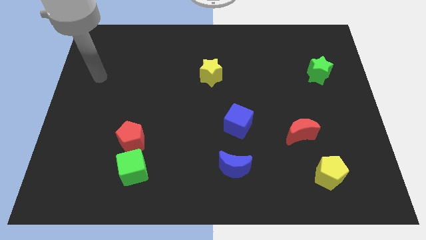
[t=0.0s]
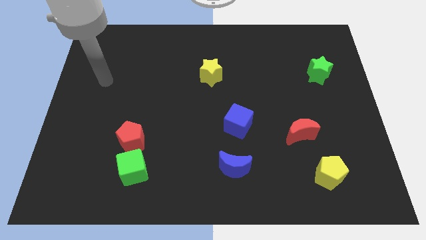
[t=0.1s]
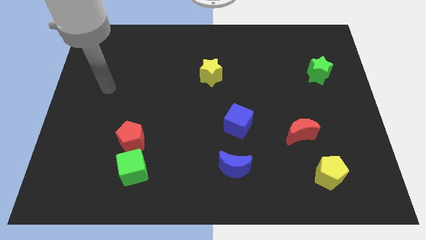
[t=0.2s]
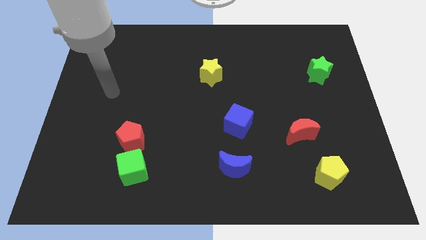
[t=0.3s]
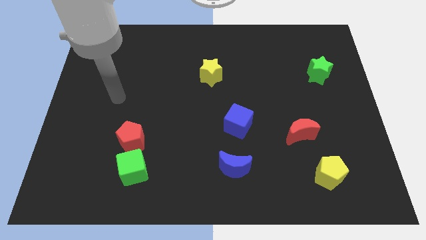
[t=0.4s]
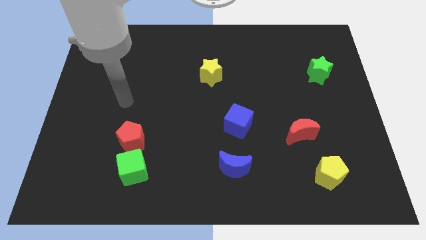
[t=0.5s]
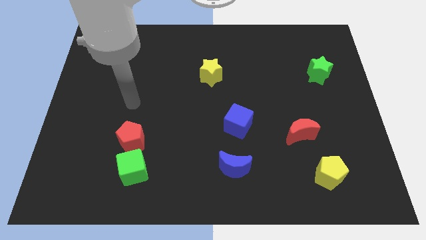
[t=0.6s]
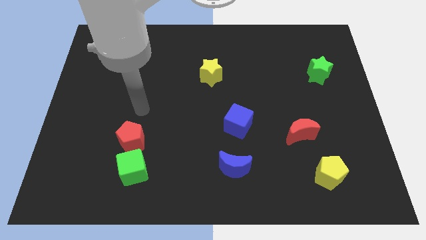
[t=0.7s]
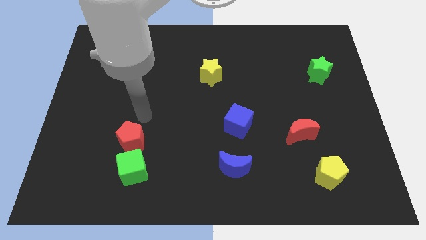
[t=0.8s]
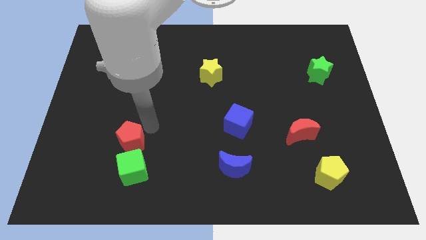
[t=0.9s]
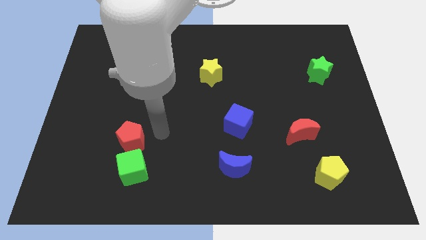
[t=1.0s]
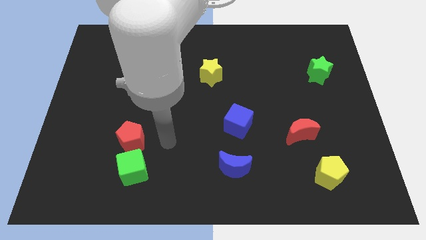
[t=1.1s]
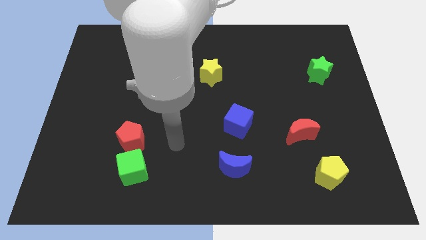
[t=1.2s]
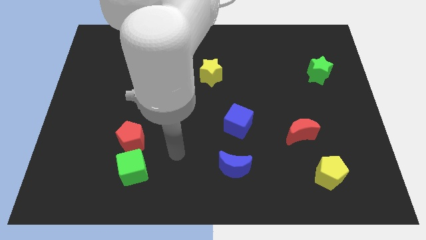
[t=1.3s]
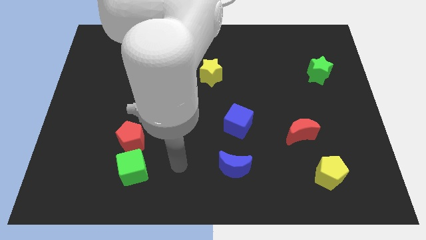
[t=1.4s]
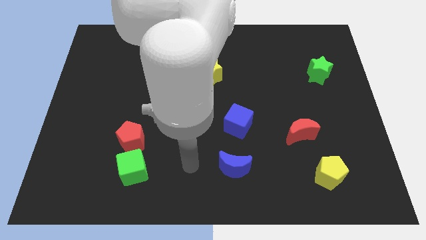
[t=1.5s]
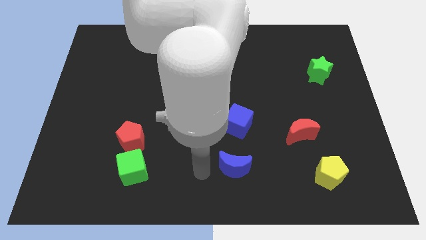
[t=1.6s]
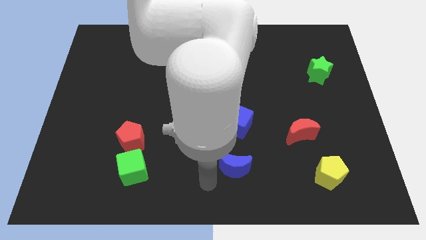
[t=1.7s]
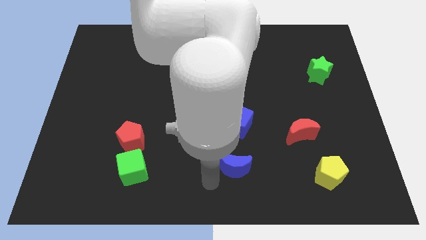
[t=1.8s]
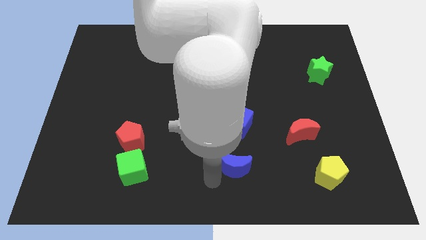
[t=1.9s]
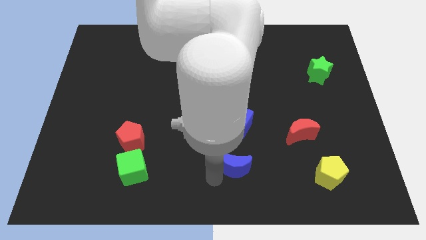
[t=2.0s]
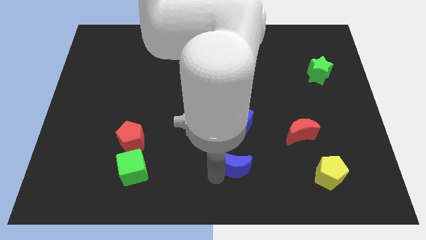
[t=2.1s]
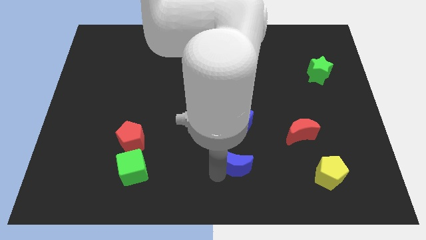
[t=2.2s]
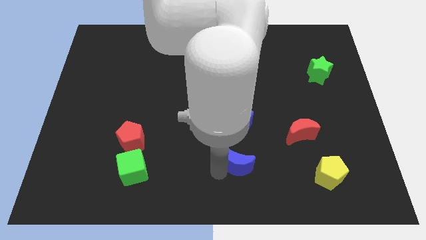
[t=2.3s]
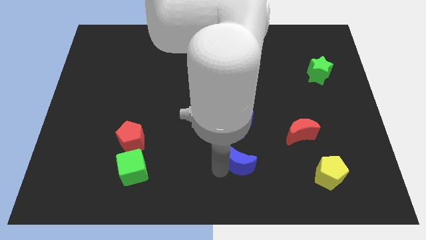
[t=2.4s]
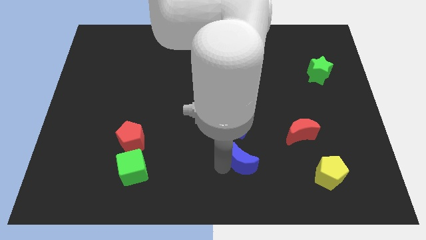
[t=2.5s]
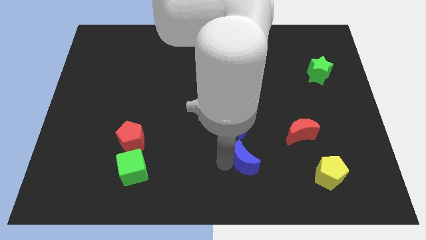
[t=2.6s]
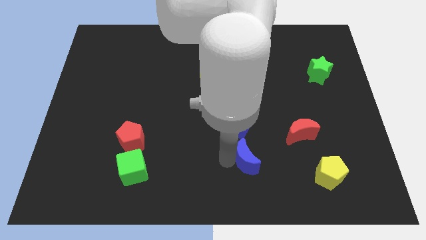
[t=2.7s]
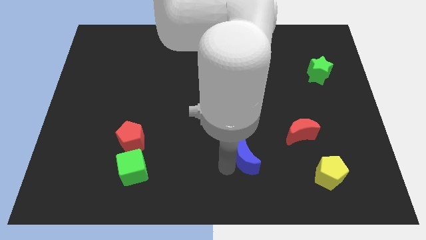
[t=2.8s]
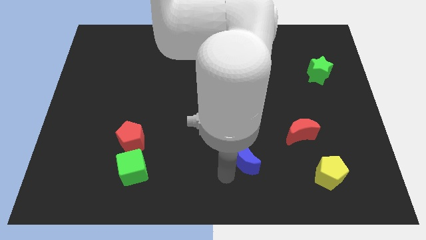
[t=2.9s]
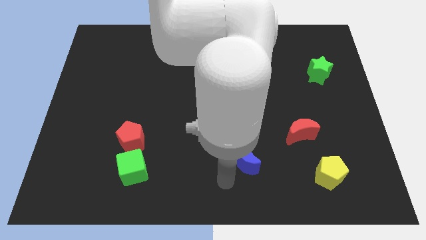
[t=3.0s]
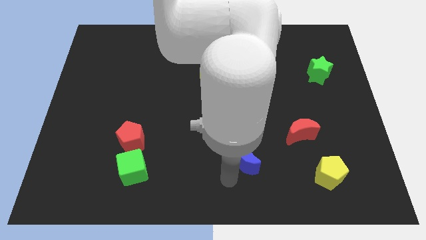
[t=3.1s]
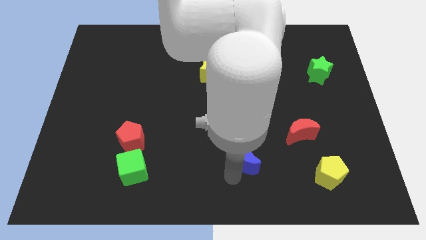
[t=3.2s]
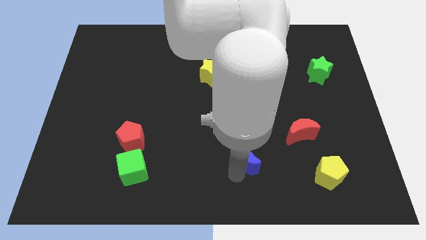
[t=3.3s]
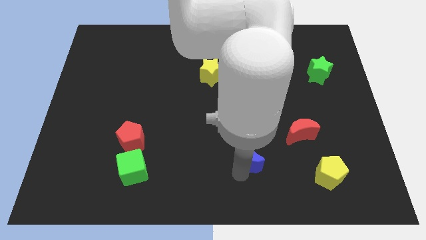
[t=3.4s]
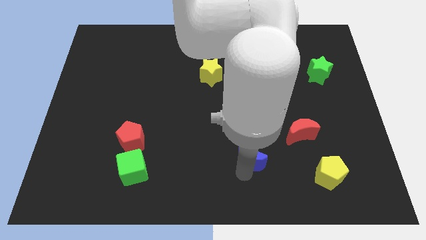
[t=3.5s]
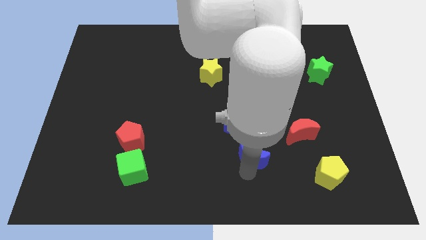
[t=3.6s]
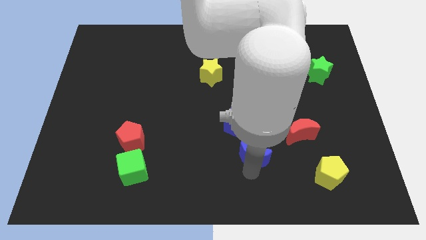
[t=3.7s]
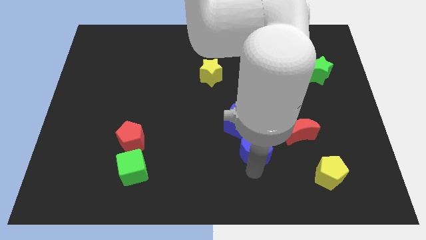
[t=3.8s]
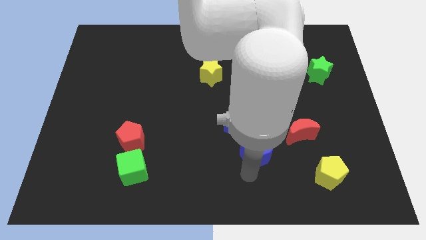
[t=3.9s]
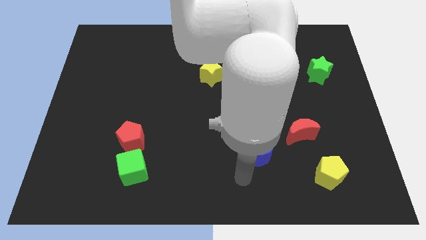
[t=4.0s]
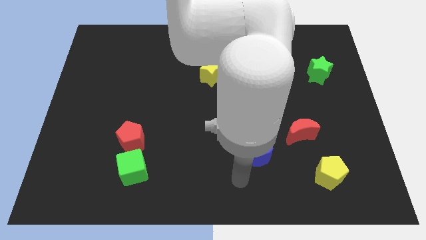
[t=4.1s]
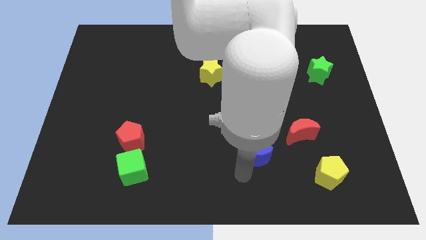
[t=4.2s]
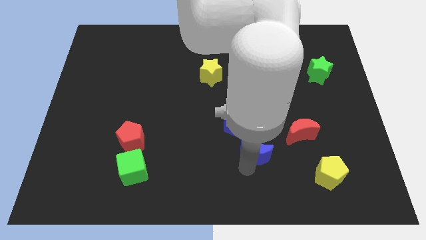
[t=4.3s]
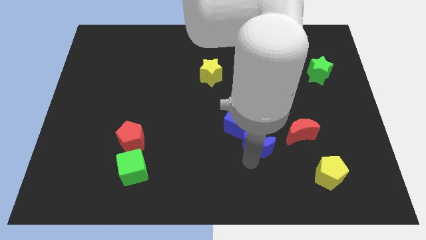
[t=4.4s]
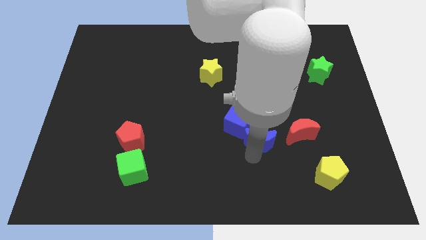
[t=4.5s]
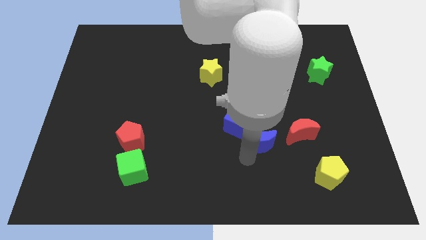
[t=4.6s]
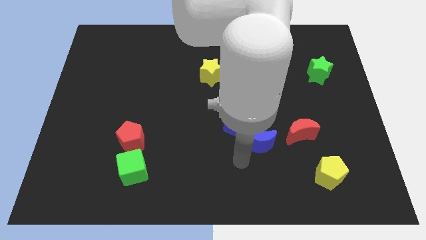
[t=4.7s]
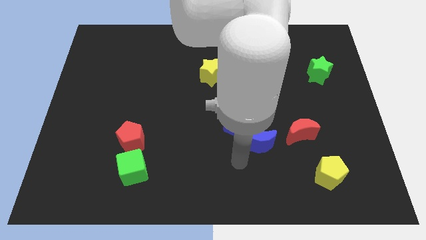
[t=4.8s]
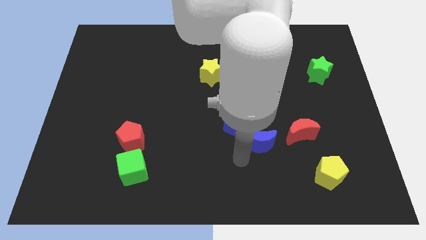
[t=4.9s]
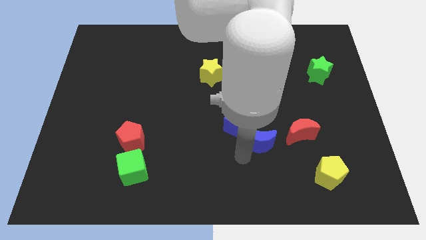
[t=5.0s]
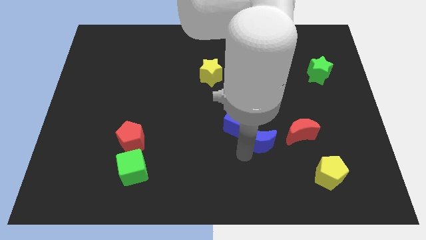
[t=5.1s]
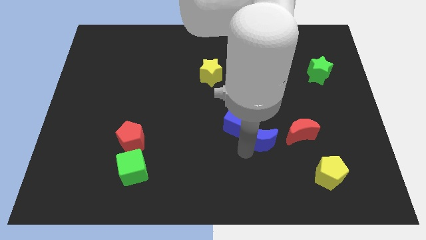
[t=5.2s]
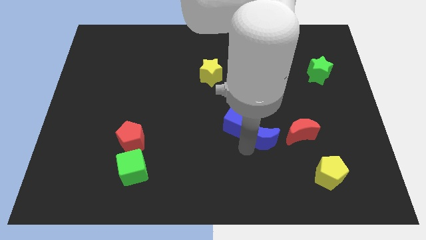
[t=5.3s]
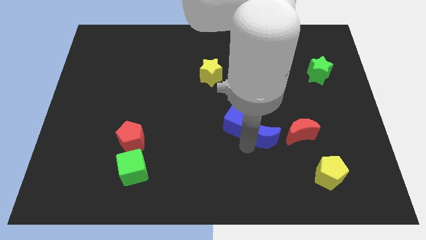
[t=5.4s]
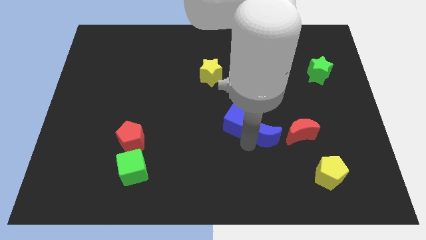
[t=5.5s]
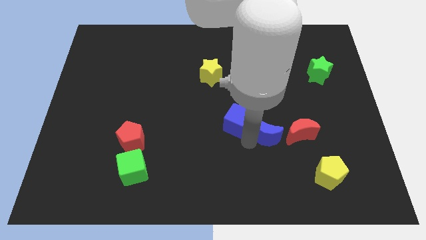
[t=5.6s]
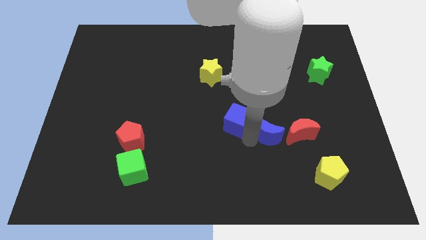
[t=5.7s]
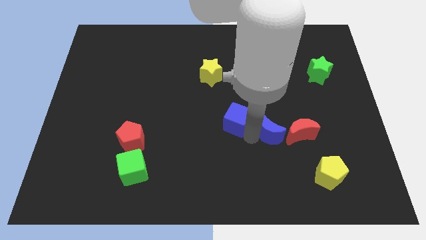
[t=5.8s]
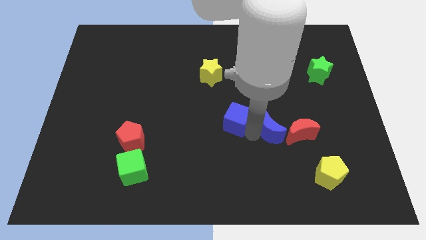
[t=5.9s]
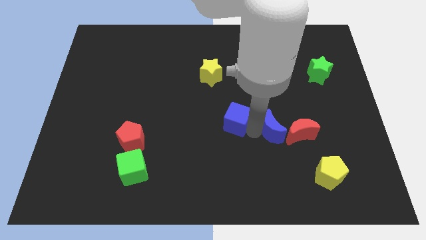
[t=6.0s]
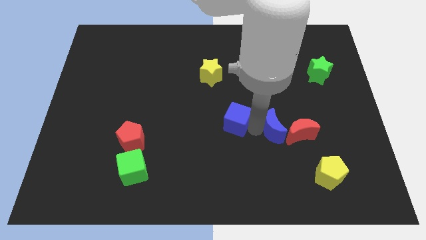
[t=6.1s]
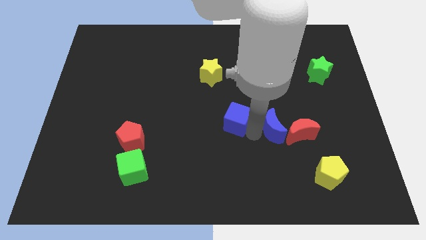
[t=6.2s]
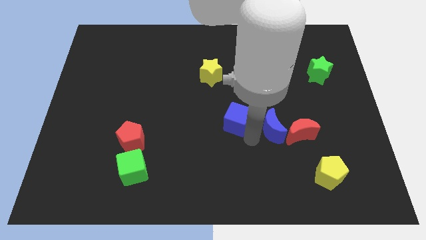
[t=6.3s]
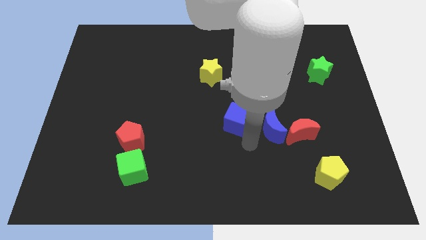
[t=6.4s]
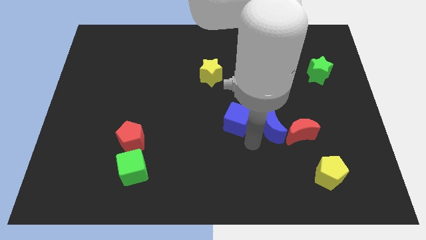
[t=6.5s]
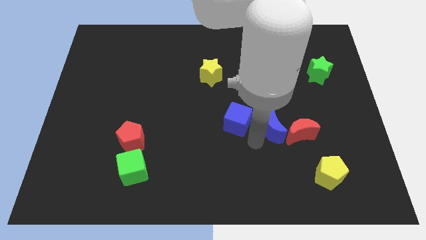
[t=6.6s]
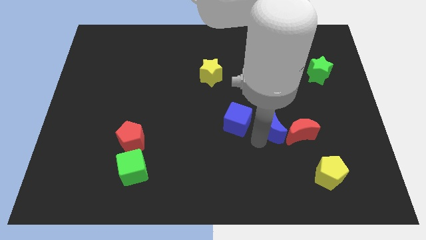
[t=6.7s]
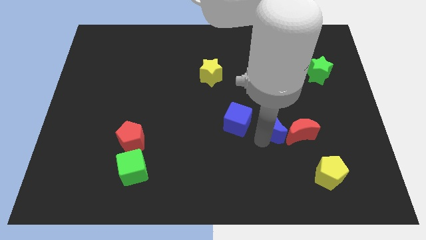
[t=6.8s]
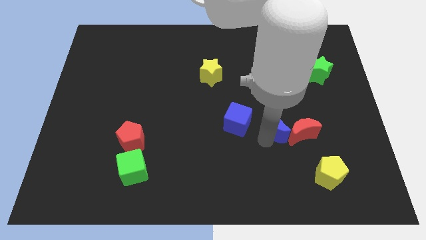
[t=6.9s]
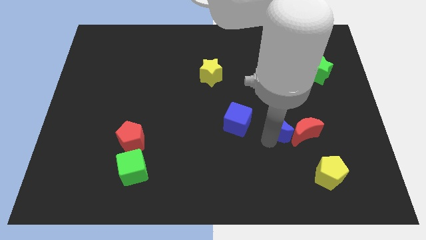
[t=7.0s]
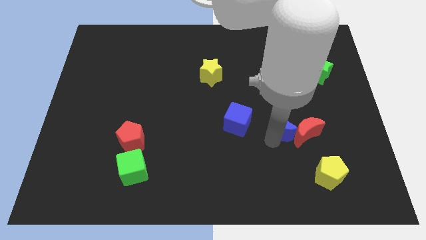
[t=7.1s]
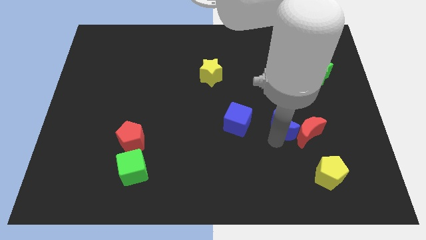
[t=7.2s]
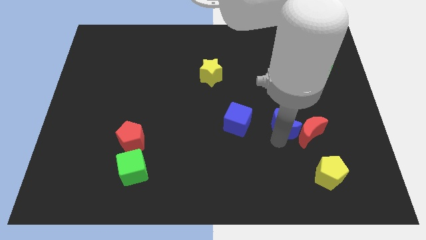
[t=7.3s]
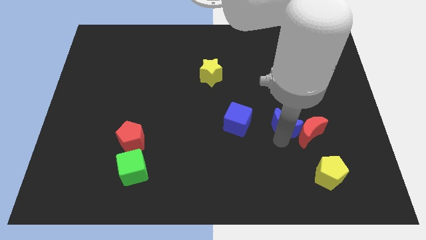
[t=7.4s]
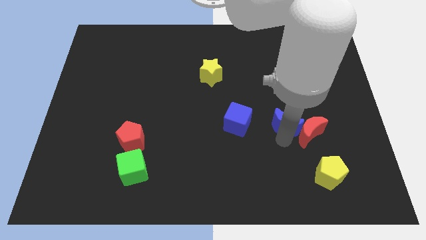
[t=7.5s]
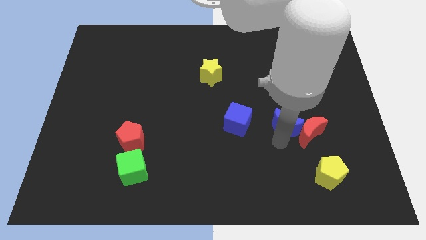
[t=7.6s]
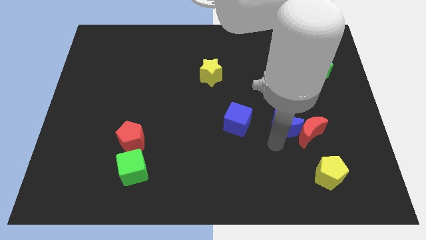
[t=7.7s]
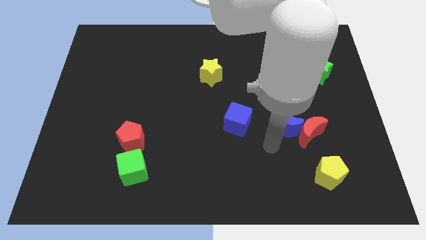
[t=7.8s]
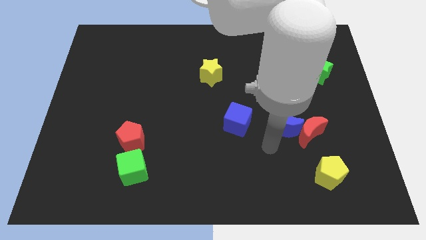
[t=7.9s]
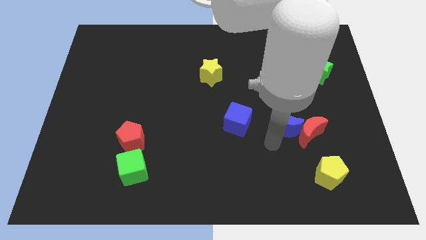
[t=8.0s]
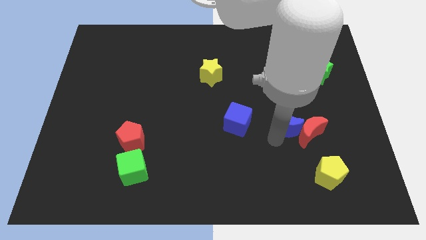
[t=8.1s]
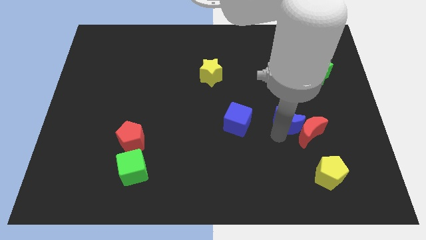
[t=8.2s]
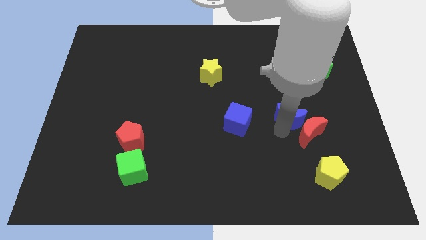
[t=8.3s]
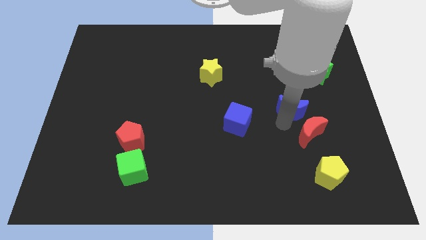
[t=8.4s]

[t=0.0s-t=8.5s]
move the blue moon diagonally upwards and to the right

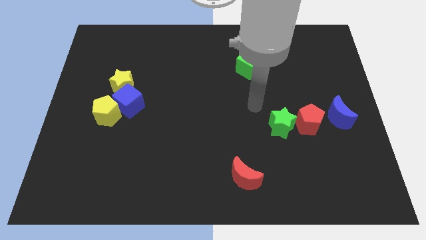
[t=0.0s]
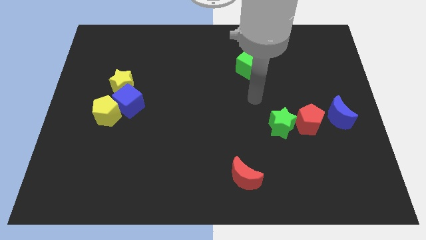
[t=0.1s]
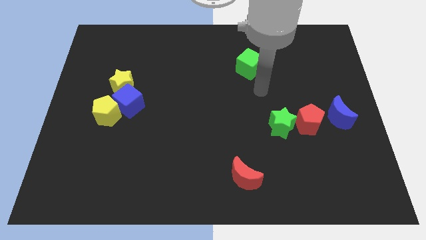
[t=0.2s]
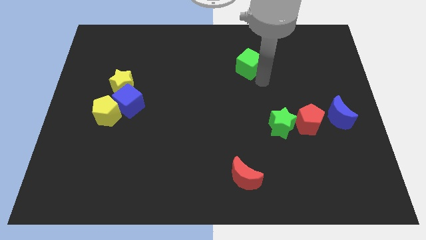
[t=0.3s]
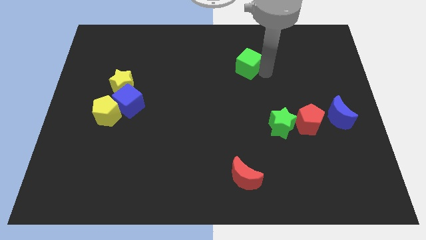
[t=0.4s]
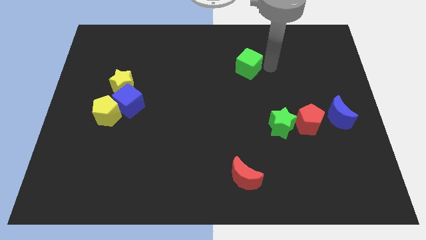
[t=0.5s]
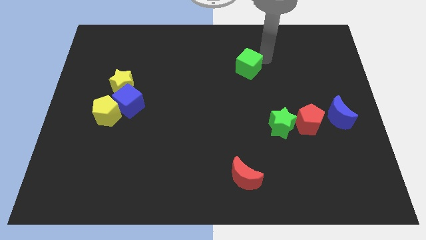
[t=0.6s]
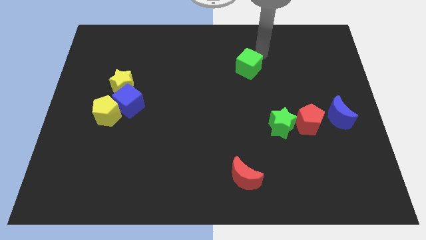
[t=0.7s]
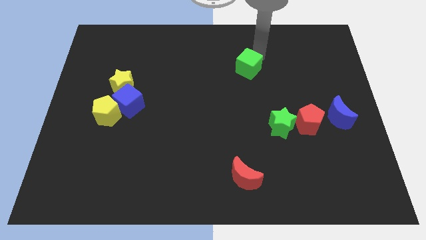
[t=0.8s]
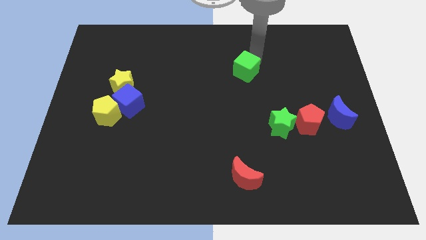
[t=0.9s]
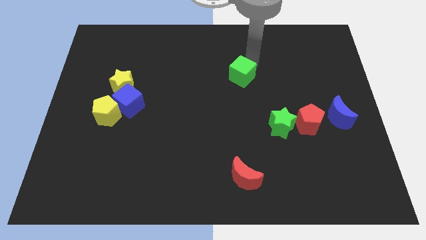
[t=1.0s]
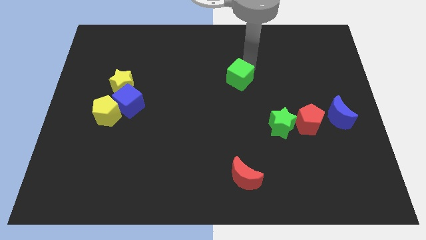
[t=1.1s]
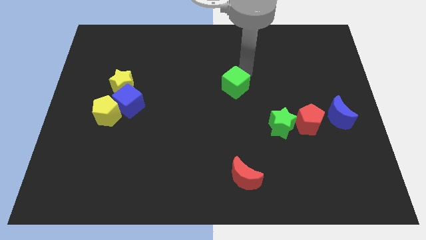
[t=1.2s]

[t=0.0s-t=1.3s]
slightly push the green cube down and to the left
